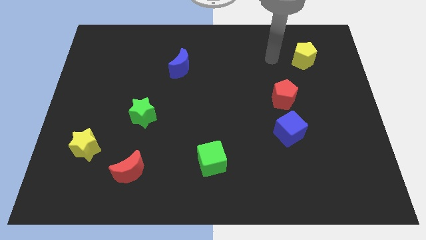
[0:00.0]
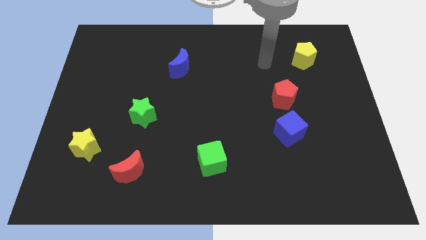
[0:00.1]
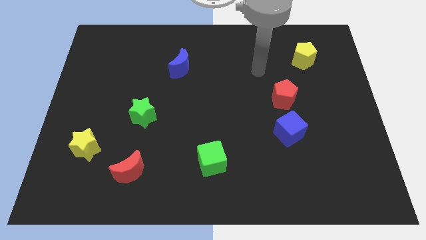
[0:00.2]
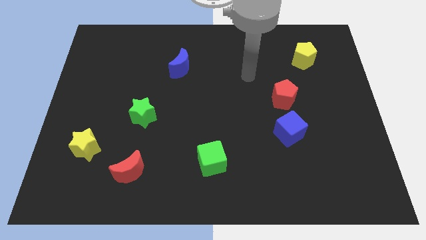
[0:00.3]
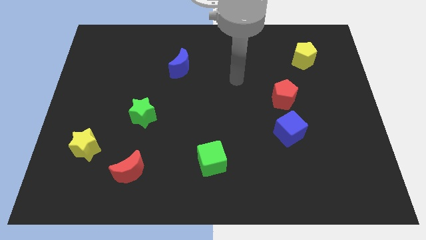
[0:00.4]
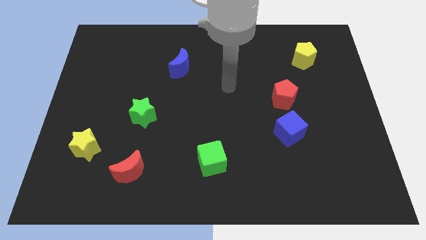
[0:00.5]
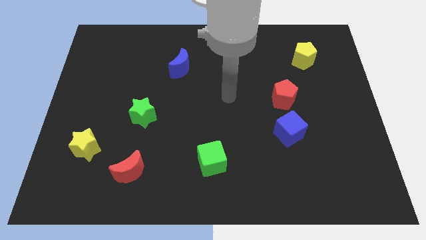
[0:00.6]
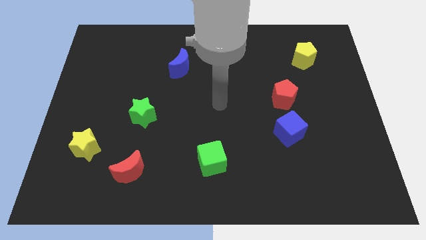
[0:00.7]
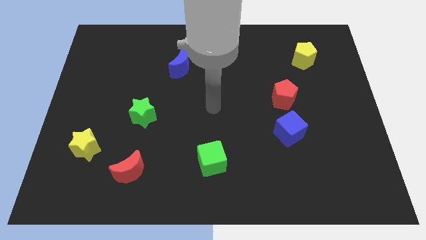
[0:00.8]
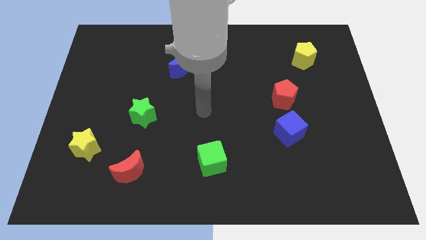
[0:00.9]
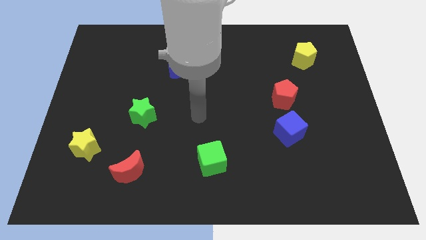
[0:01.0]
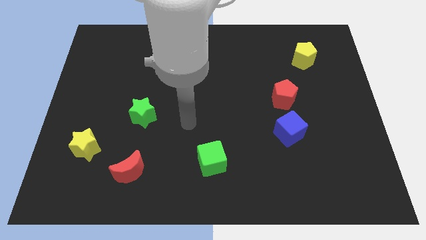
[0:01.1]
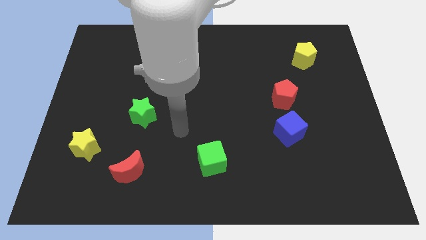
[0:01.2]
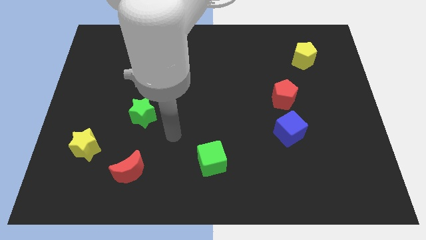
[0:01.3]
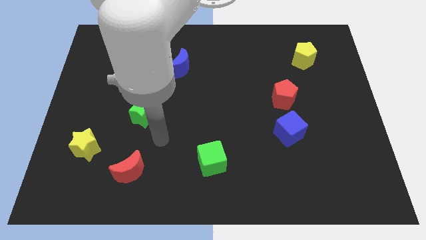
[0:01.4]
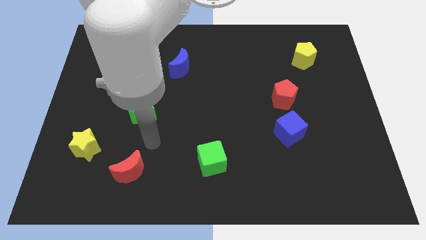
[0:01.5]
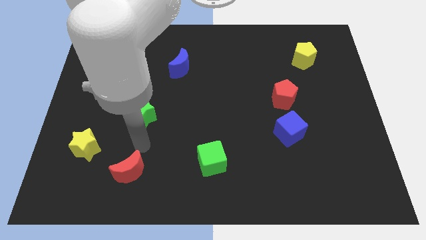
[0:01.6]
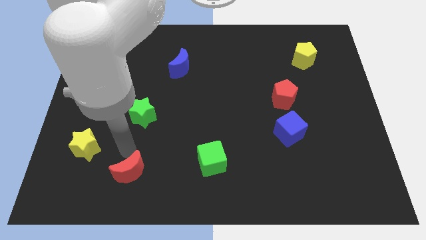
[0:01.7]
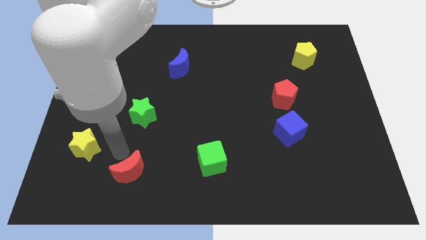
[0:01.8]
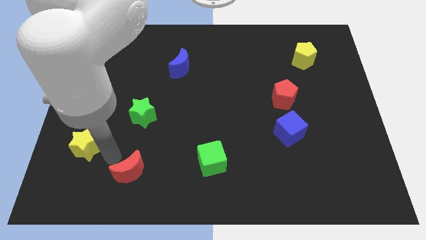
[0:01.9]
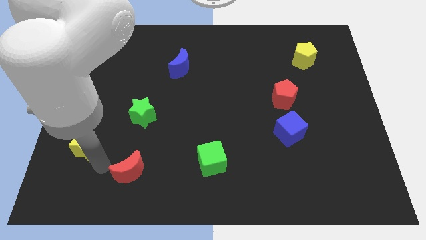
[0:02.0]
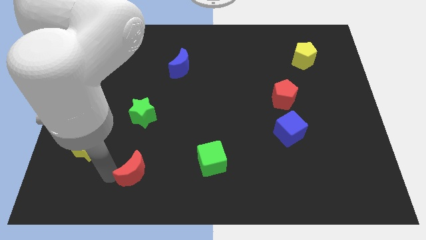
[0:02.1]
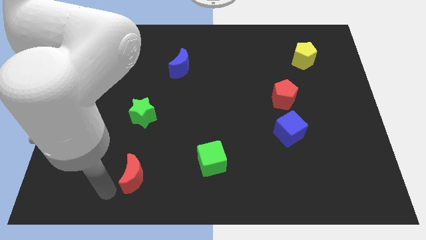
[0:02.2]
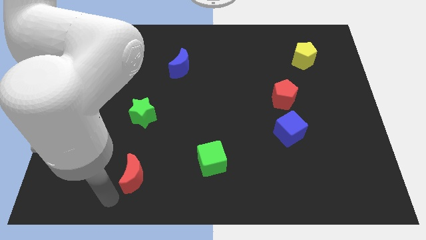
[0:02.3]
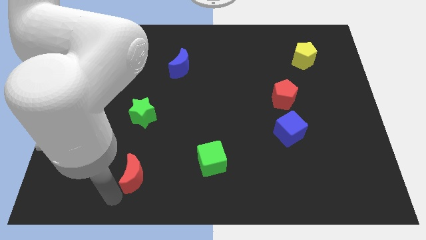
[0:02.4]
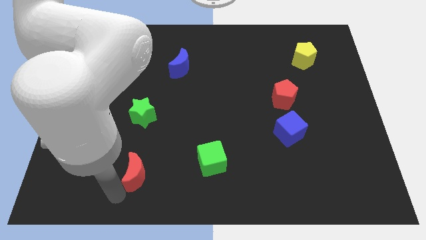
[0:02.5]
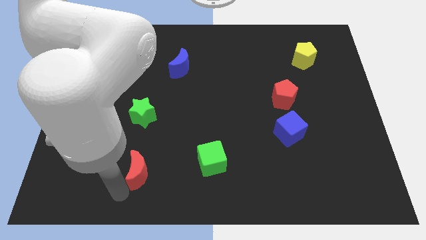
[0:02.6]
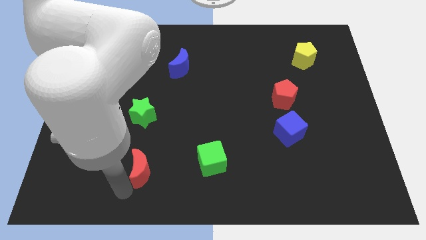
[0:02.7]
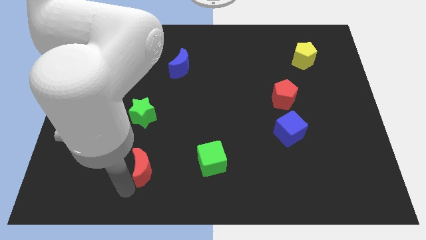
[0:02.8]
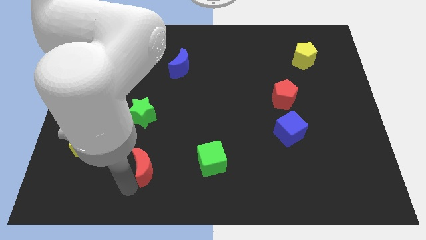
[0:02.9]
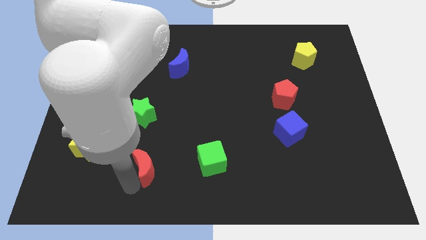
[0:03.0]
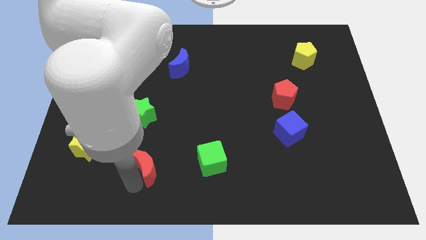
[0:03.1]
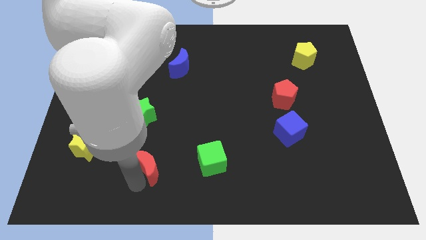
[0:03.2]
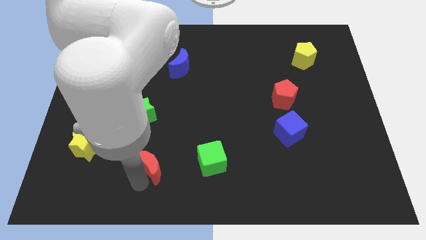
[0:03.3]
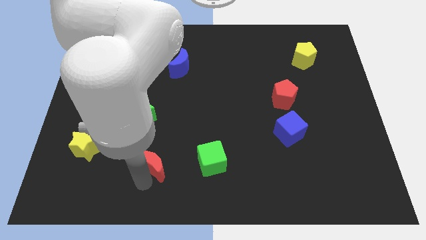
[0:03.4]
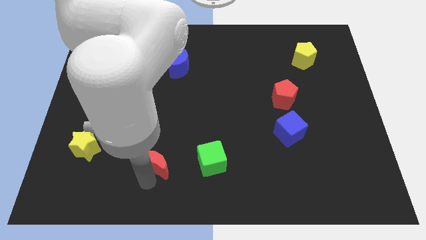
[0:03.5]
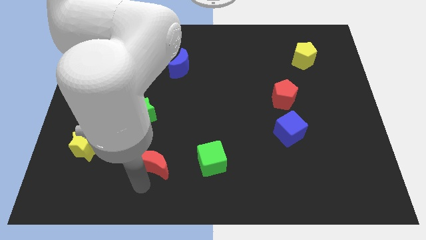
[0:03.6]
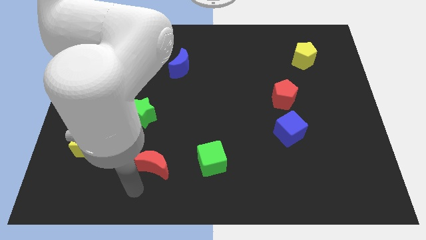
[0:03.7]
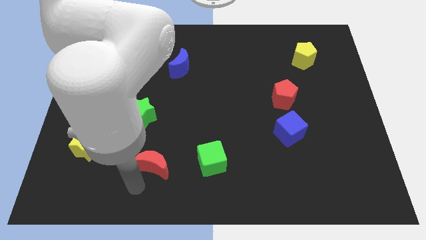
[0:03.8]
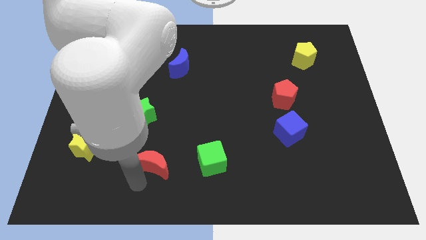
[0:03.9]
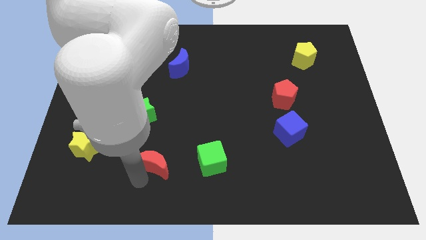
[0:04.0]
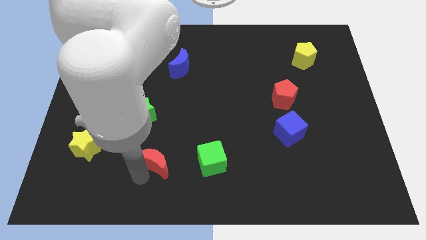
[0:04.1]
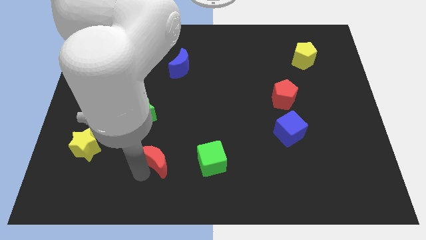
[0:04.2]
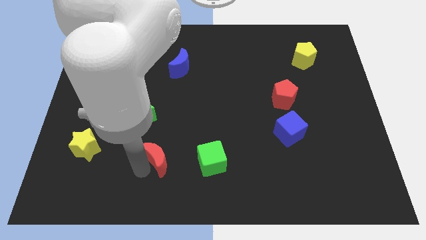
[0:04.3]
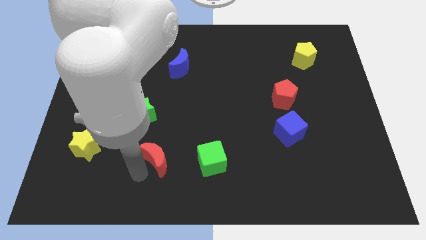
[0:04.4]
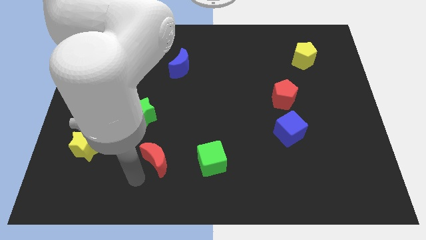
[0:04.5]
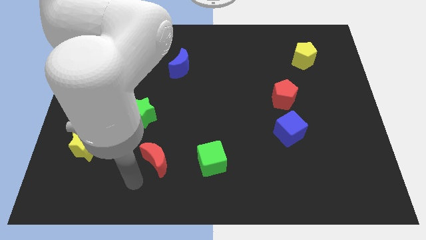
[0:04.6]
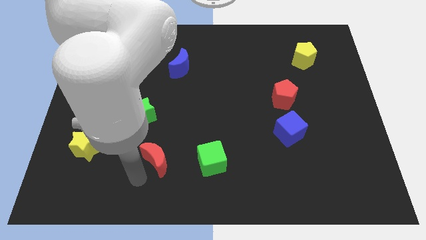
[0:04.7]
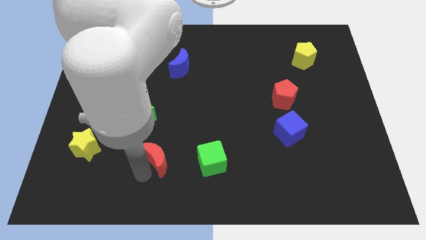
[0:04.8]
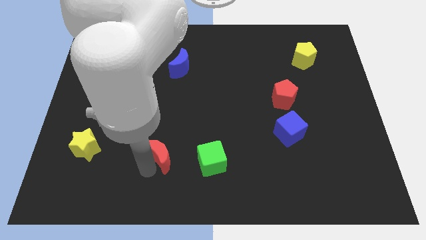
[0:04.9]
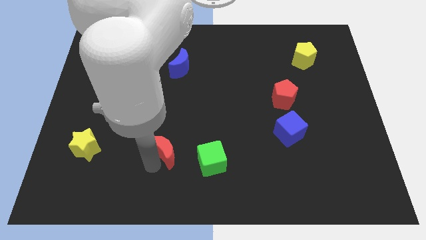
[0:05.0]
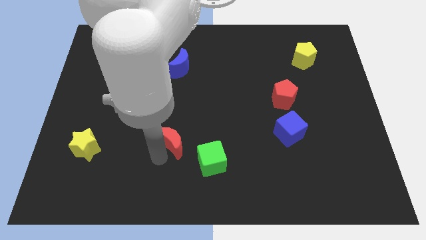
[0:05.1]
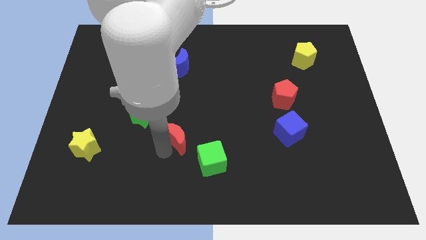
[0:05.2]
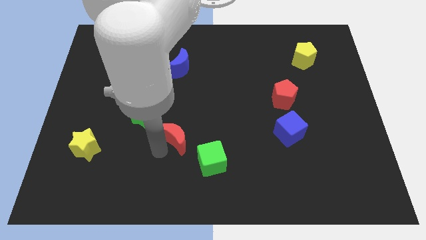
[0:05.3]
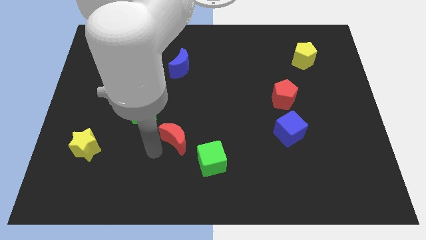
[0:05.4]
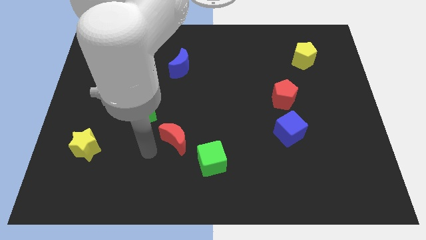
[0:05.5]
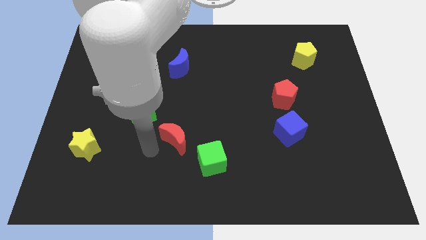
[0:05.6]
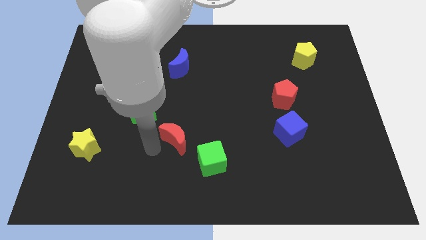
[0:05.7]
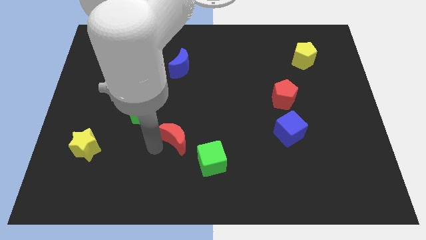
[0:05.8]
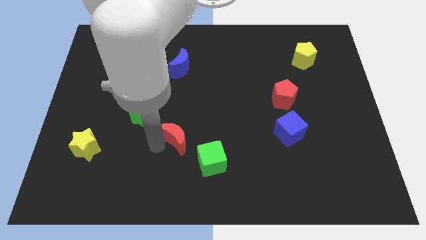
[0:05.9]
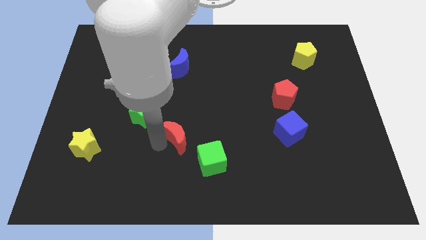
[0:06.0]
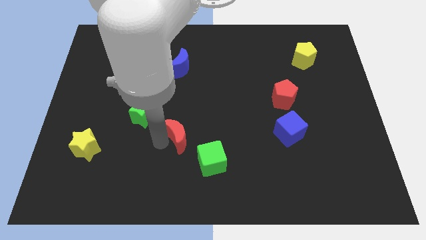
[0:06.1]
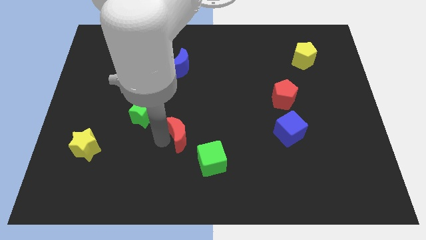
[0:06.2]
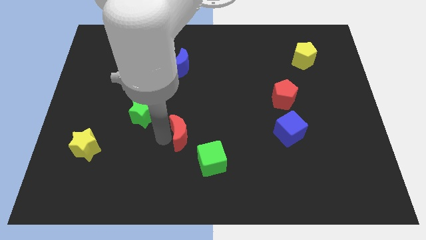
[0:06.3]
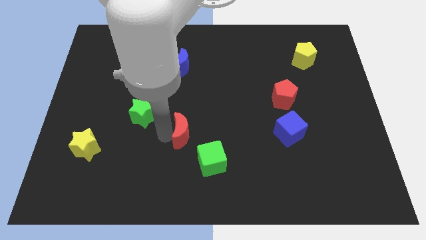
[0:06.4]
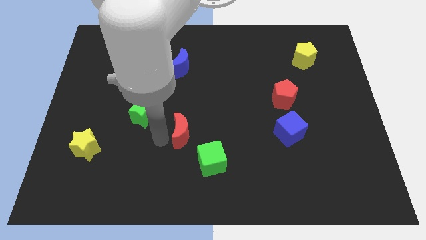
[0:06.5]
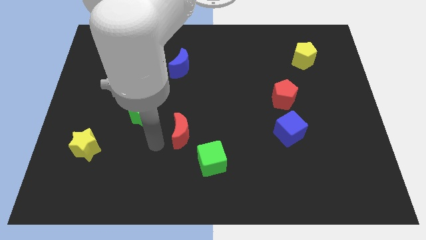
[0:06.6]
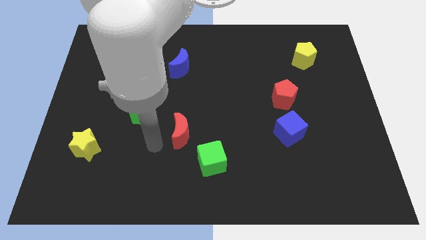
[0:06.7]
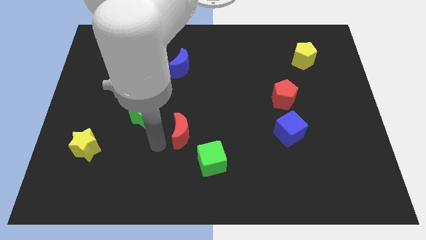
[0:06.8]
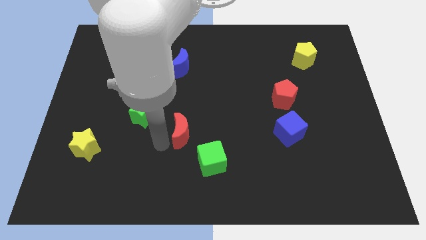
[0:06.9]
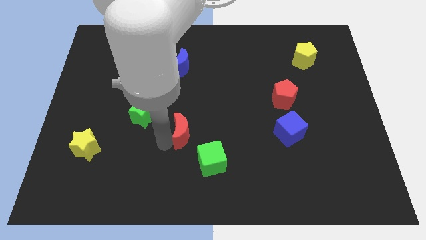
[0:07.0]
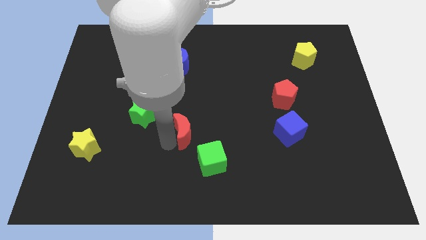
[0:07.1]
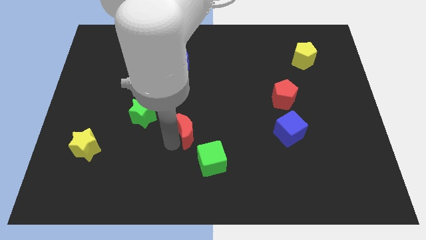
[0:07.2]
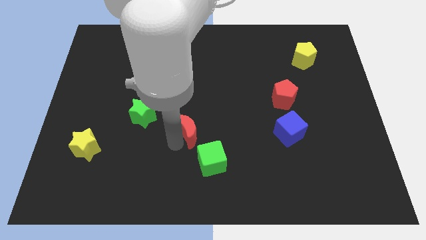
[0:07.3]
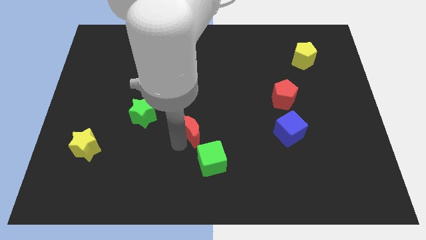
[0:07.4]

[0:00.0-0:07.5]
put the red moon to the top of the green cube
